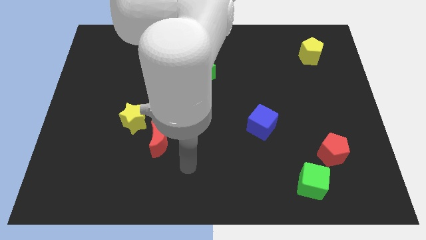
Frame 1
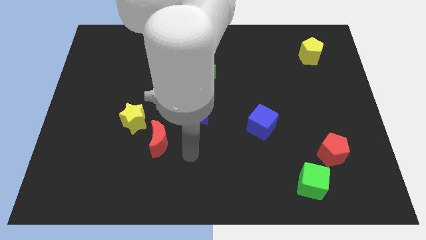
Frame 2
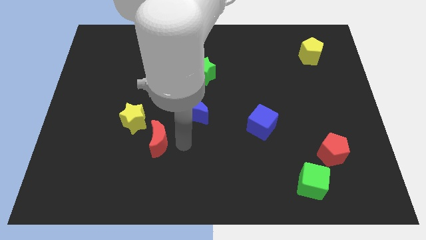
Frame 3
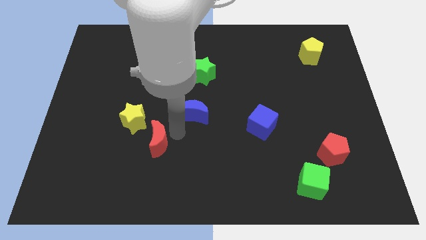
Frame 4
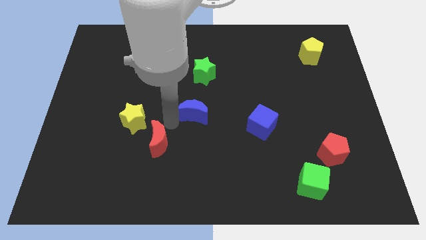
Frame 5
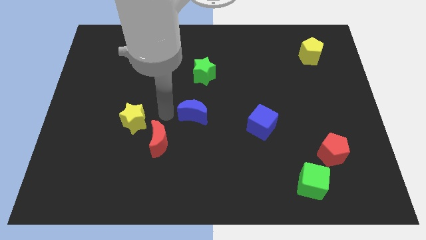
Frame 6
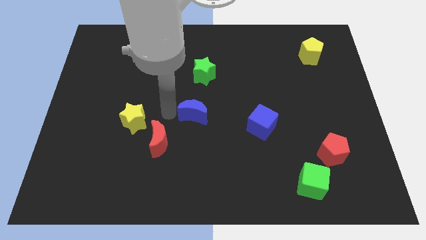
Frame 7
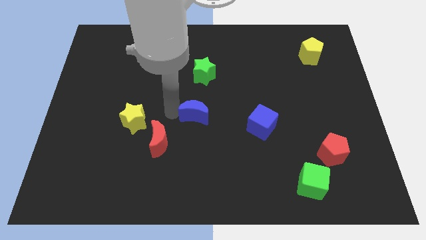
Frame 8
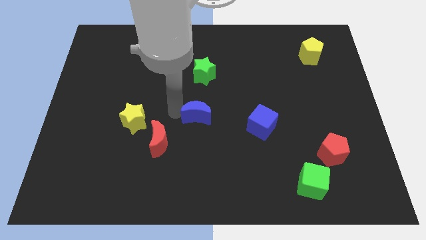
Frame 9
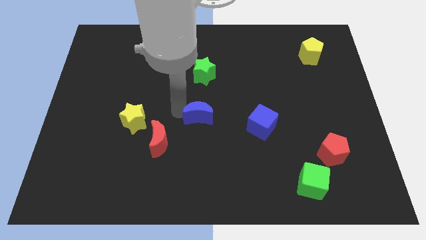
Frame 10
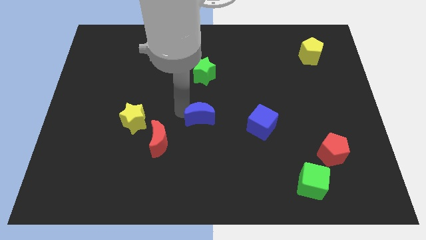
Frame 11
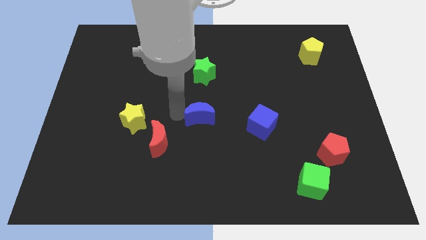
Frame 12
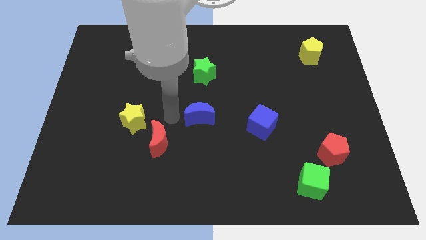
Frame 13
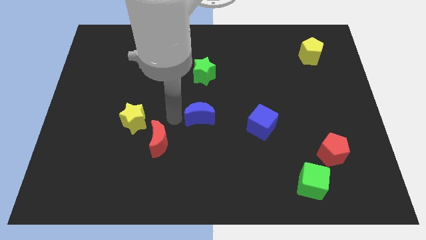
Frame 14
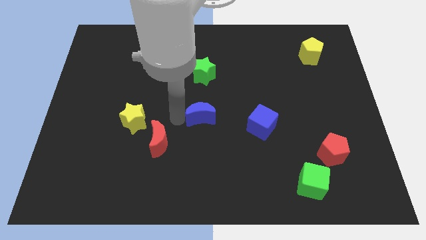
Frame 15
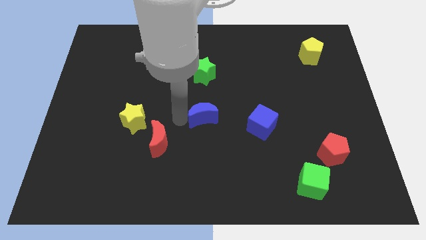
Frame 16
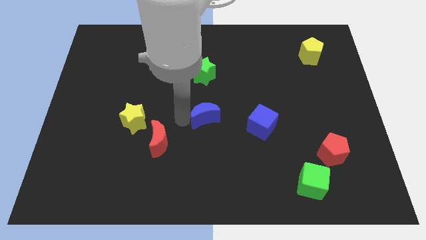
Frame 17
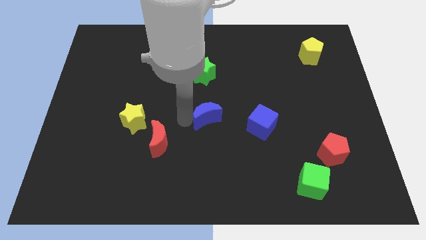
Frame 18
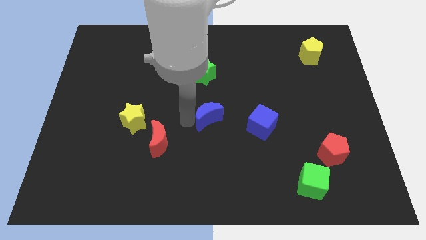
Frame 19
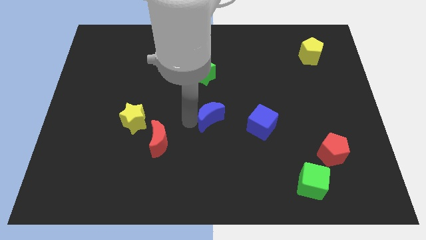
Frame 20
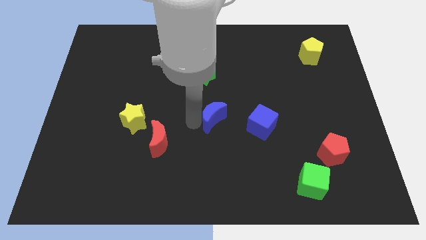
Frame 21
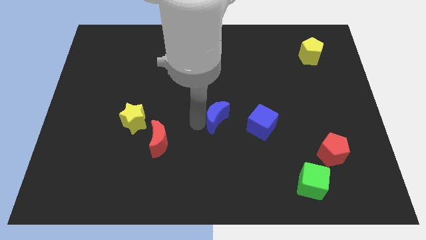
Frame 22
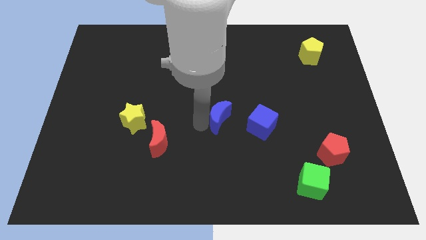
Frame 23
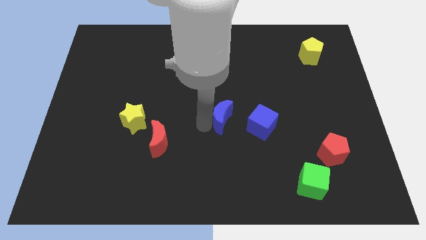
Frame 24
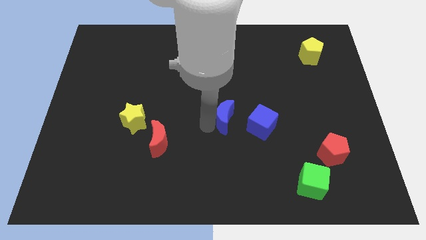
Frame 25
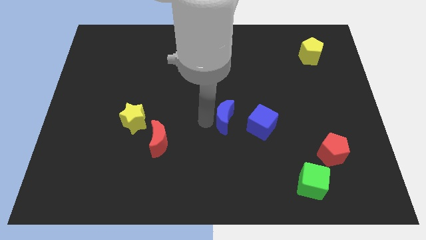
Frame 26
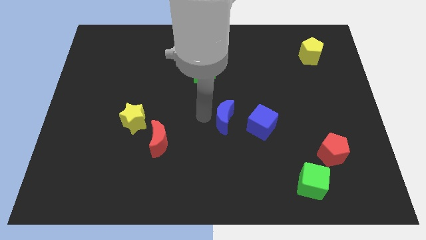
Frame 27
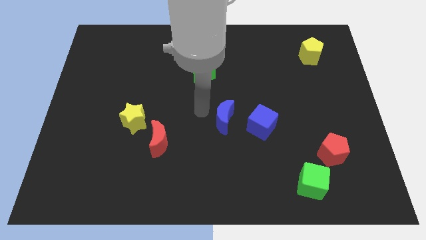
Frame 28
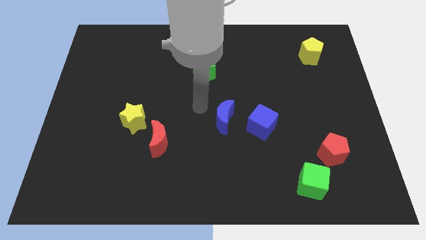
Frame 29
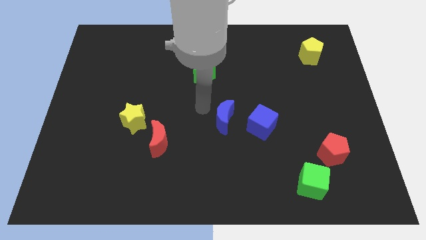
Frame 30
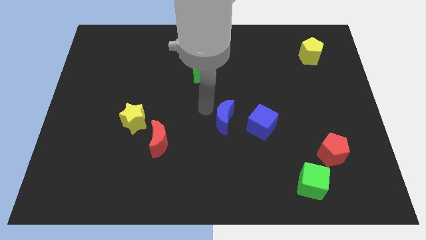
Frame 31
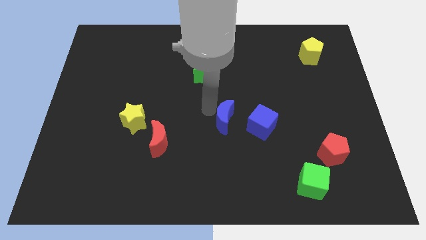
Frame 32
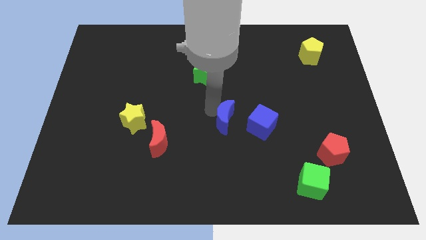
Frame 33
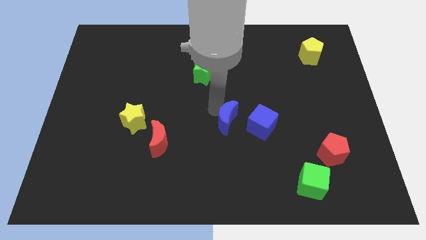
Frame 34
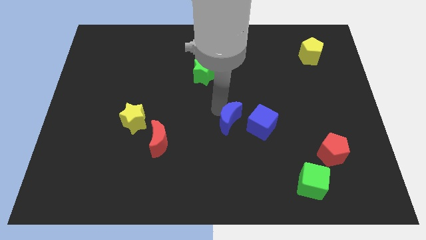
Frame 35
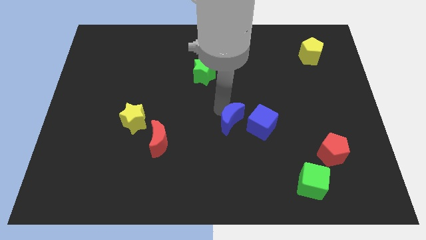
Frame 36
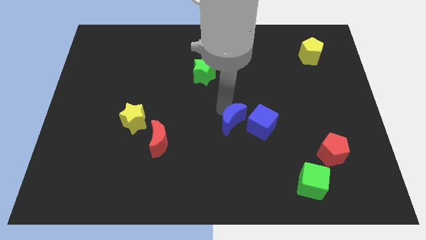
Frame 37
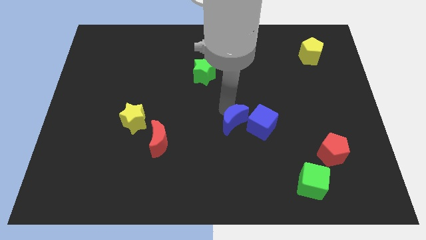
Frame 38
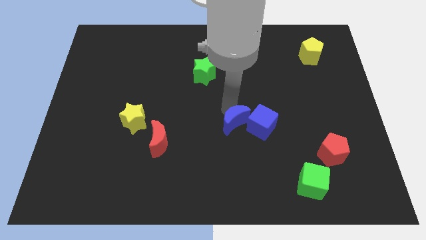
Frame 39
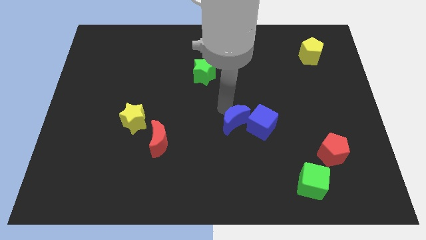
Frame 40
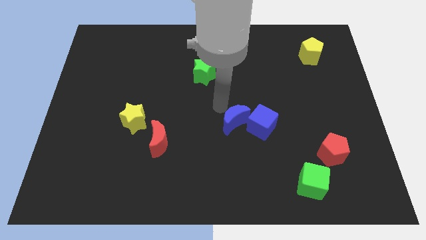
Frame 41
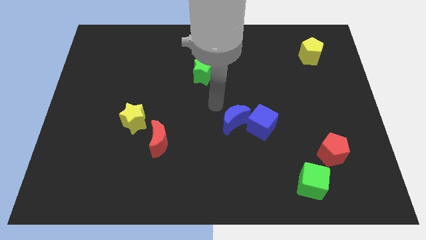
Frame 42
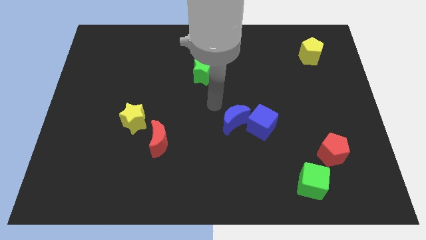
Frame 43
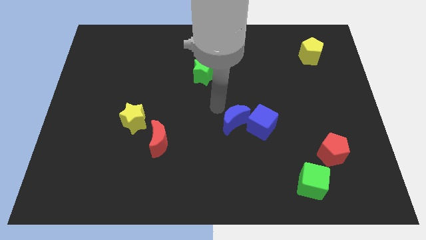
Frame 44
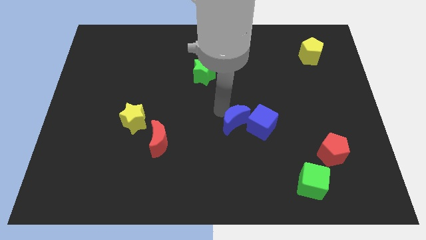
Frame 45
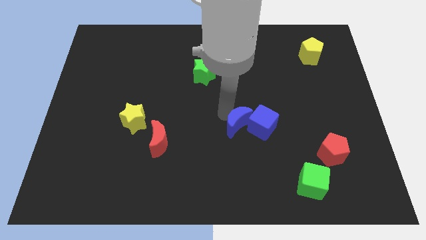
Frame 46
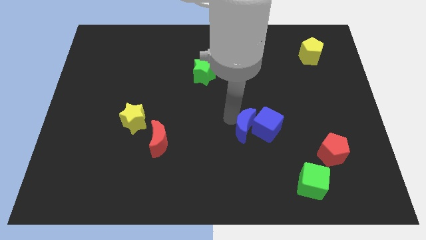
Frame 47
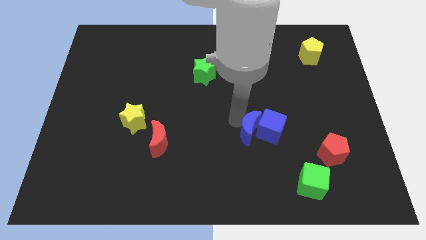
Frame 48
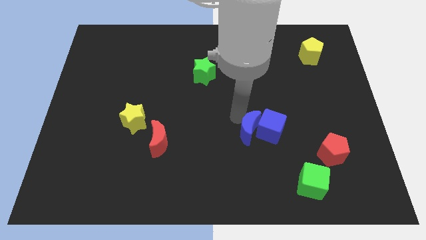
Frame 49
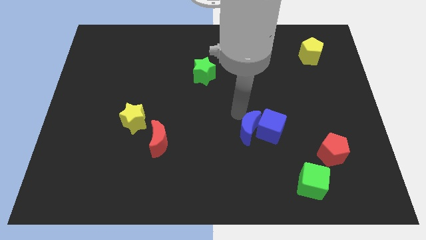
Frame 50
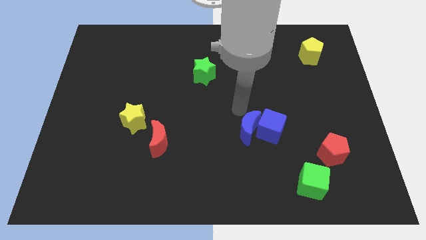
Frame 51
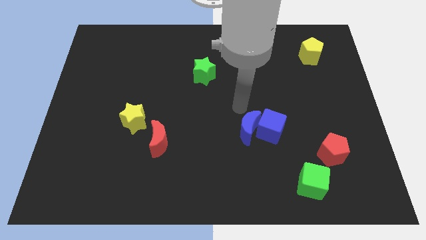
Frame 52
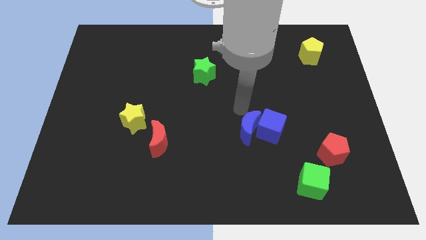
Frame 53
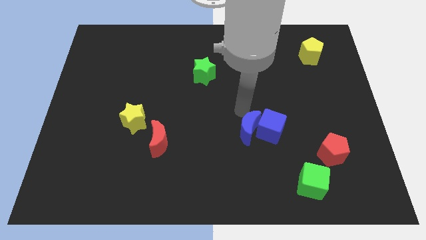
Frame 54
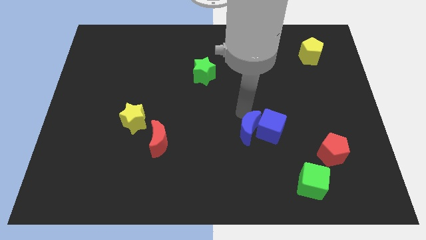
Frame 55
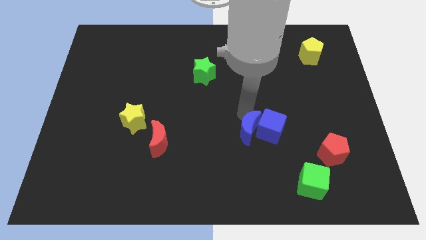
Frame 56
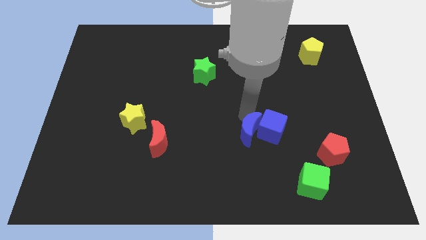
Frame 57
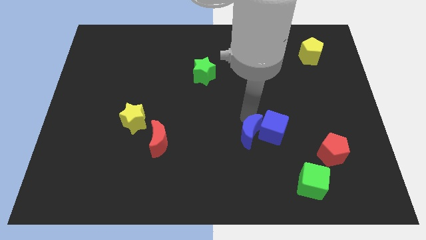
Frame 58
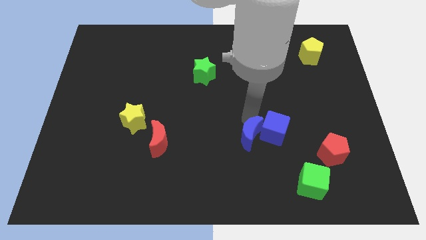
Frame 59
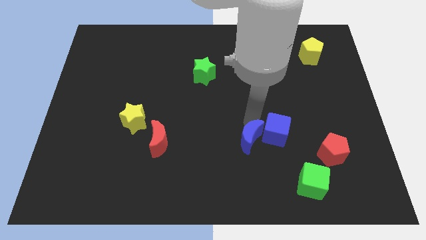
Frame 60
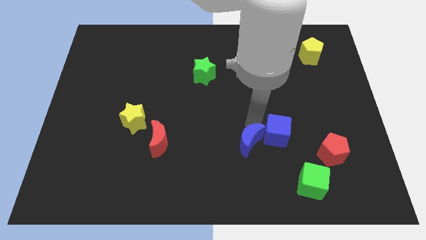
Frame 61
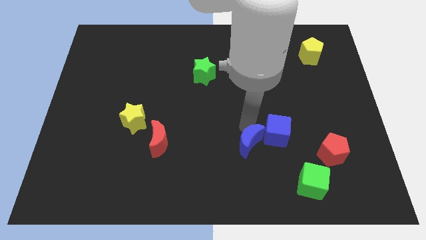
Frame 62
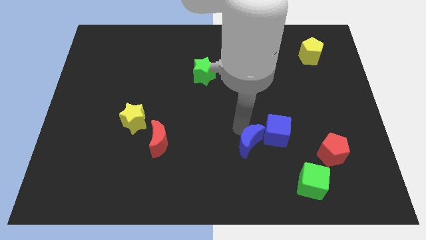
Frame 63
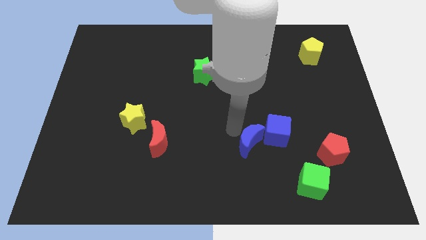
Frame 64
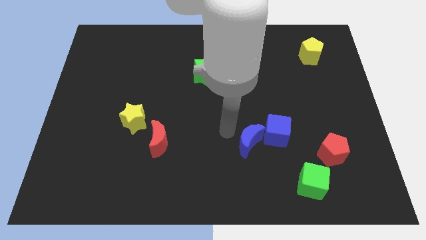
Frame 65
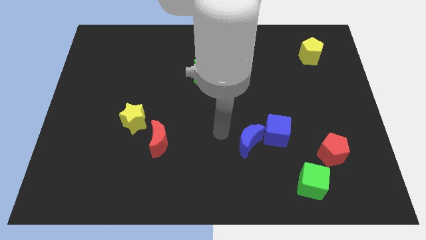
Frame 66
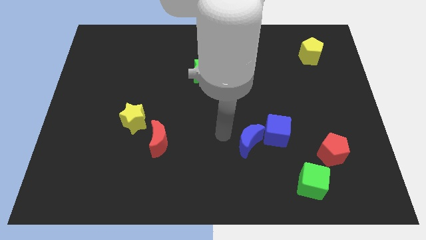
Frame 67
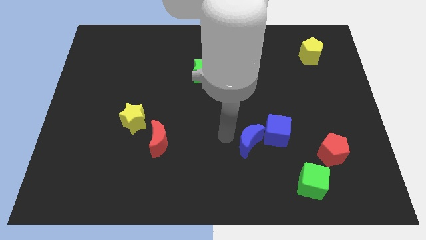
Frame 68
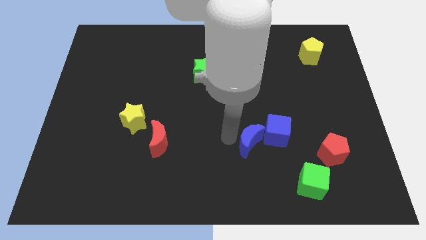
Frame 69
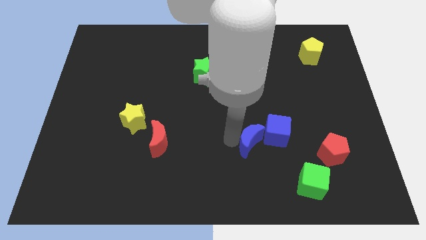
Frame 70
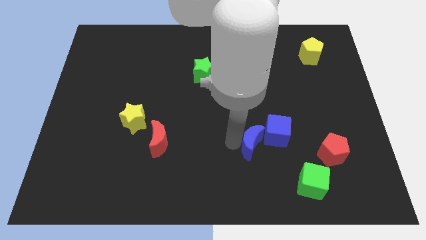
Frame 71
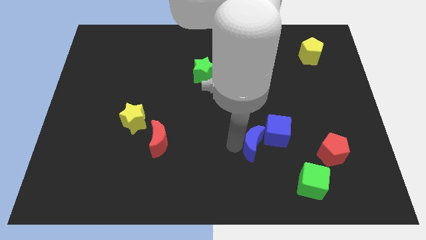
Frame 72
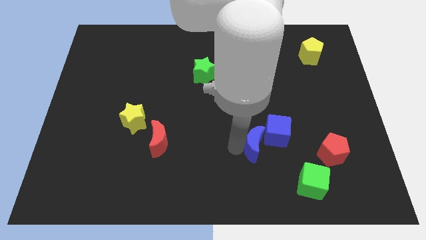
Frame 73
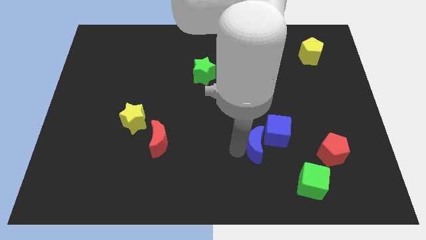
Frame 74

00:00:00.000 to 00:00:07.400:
move the blue moon to the left side of the red pentagon
